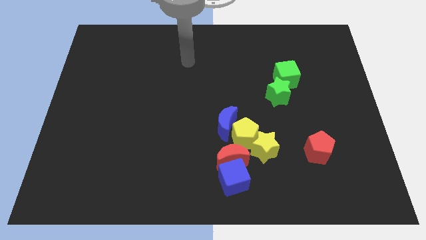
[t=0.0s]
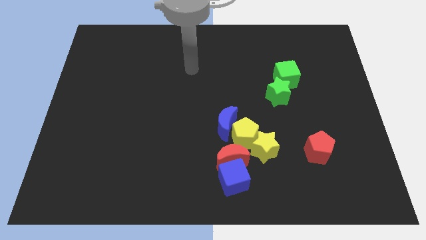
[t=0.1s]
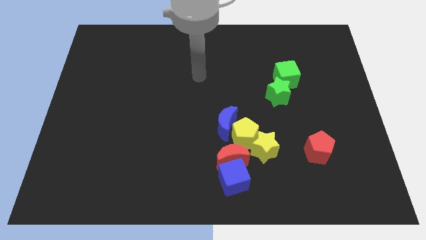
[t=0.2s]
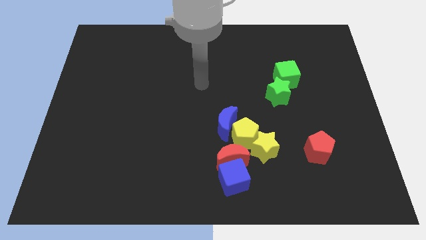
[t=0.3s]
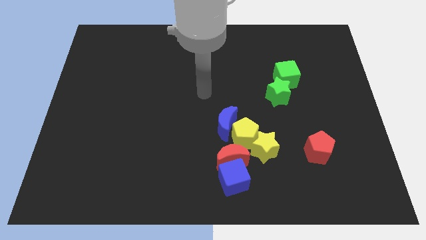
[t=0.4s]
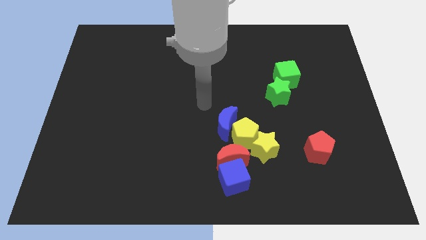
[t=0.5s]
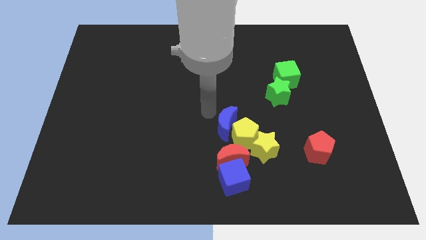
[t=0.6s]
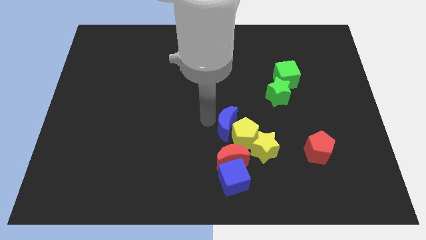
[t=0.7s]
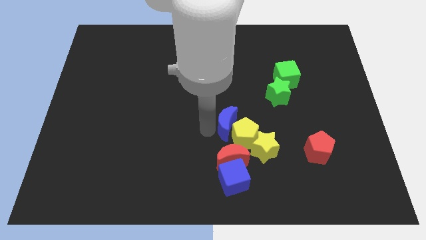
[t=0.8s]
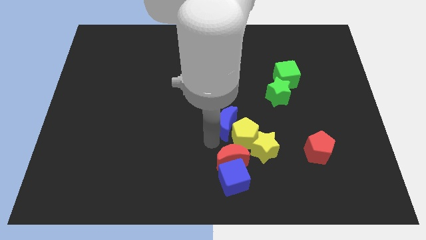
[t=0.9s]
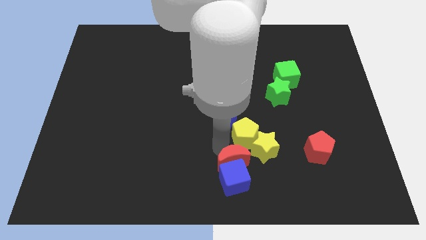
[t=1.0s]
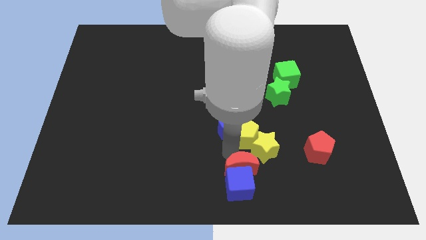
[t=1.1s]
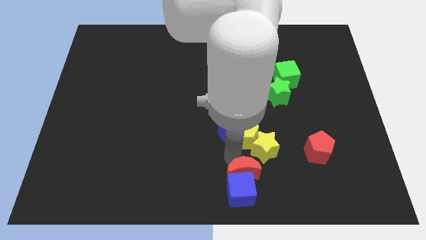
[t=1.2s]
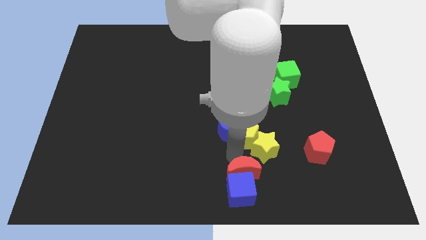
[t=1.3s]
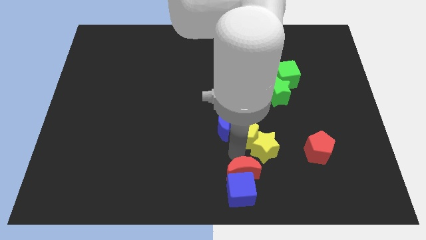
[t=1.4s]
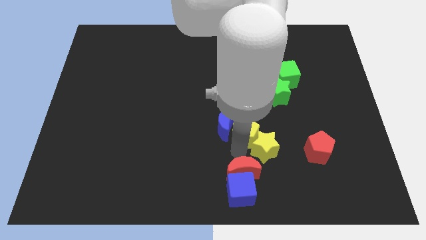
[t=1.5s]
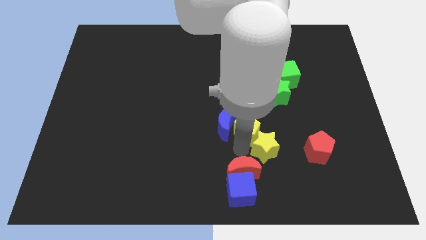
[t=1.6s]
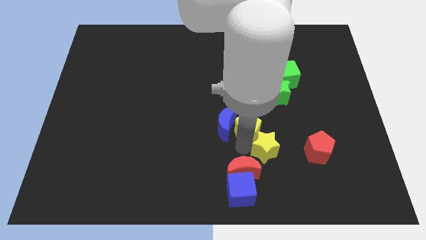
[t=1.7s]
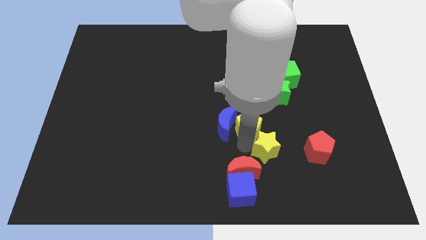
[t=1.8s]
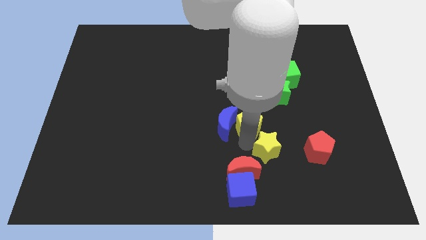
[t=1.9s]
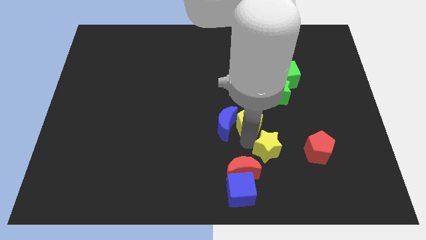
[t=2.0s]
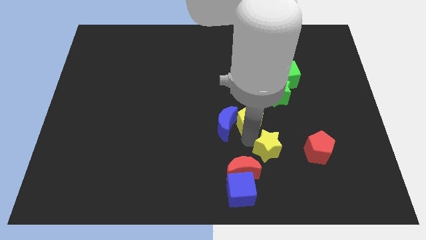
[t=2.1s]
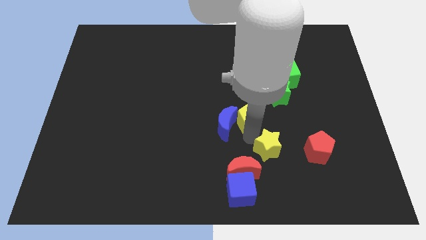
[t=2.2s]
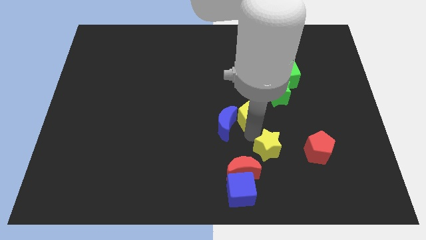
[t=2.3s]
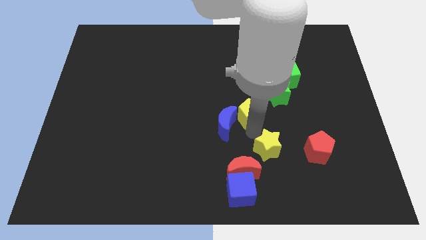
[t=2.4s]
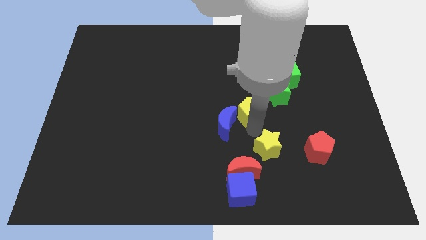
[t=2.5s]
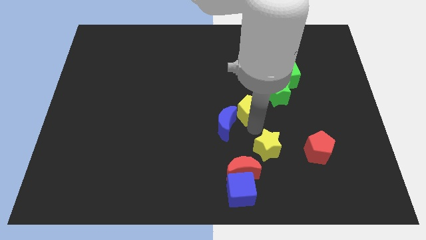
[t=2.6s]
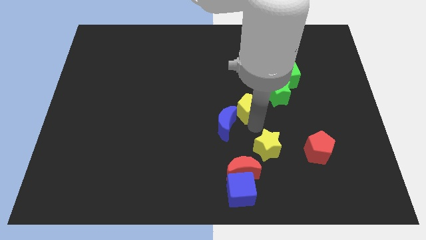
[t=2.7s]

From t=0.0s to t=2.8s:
pull the yellow pentagon apart from the clump

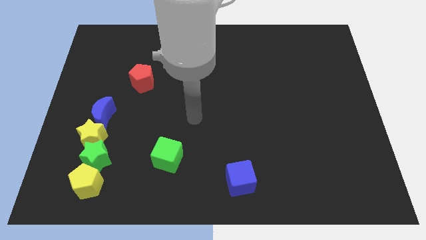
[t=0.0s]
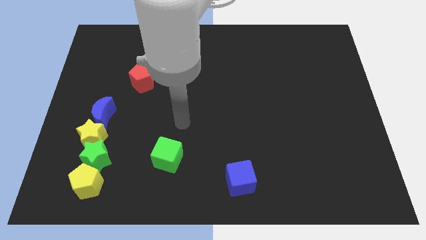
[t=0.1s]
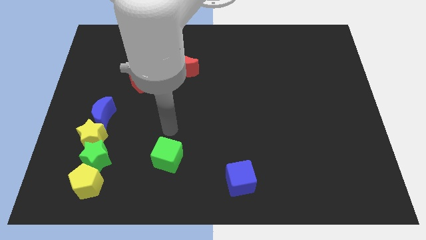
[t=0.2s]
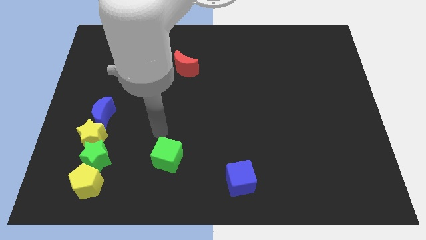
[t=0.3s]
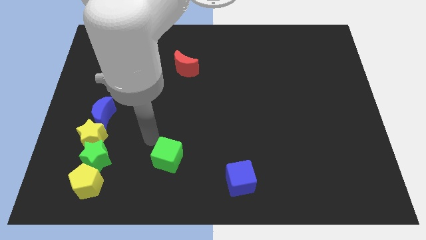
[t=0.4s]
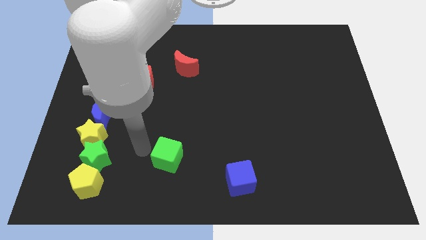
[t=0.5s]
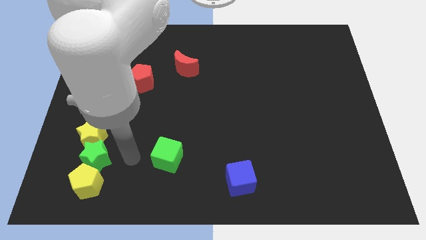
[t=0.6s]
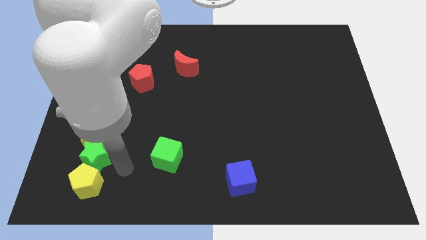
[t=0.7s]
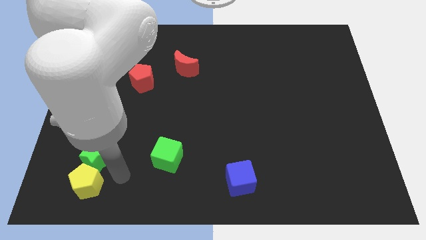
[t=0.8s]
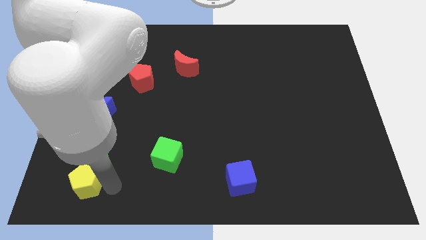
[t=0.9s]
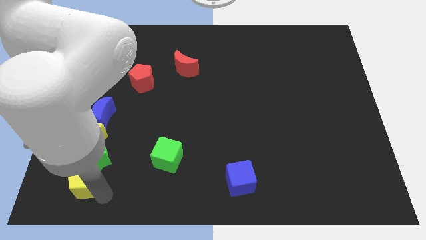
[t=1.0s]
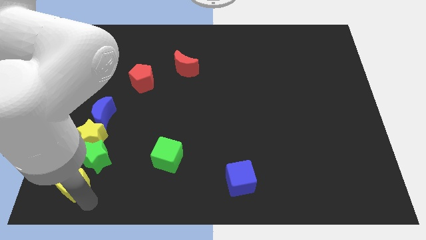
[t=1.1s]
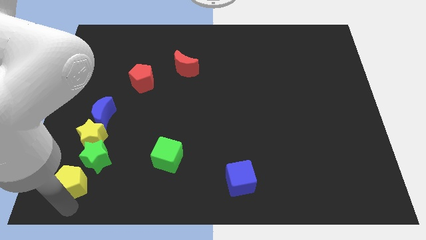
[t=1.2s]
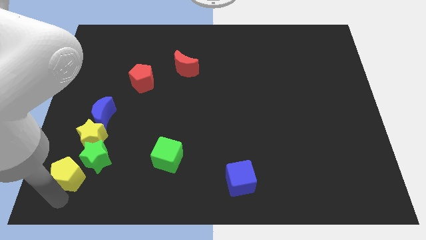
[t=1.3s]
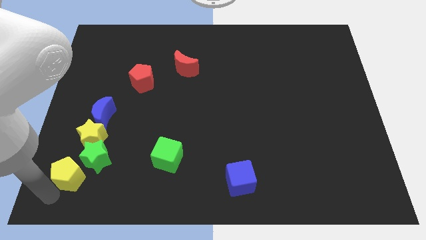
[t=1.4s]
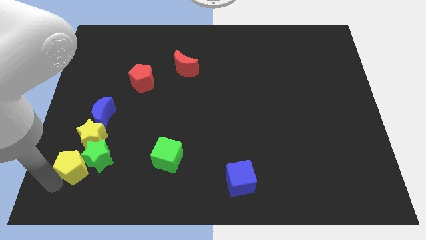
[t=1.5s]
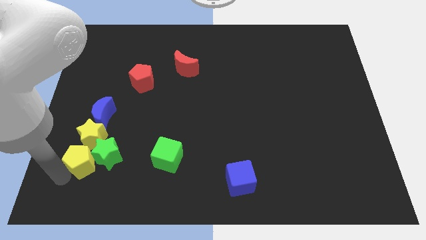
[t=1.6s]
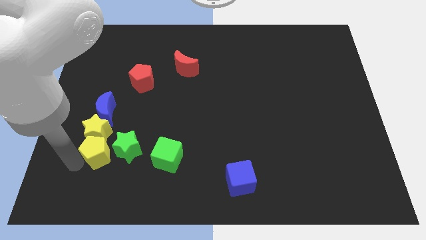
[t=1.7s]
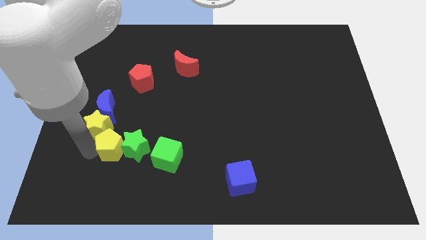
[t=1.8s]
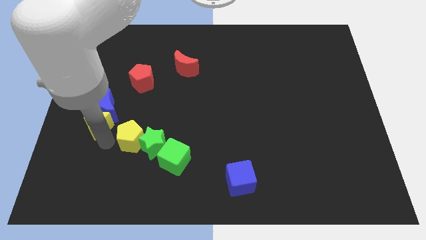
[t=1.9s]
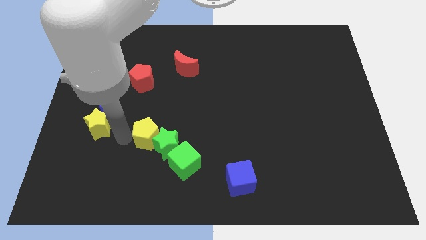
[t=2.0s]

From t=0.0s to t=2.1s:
pull the green star apart from the yellow star and yellow pentagon

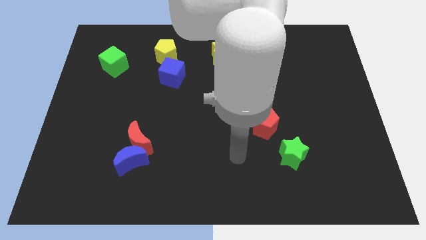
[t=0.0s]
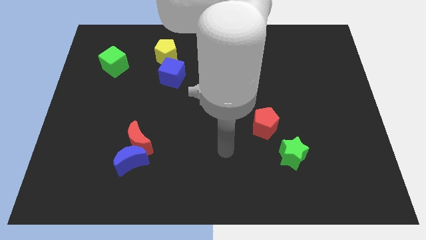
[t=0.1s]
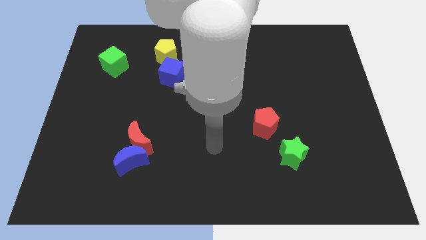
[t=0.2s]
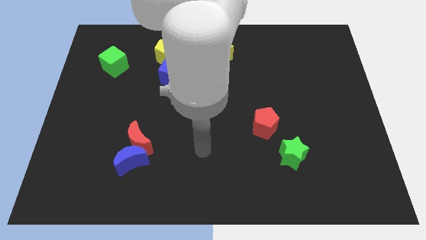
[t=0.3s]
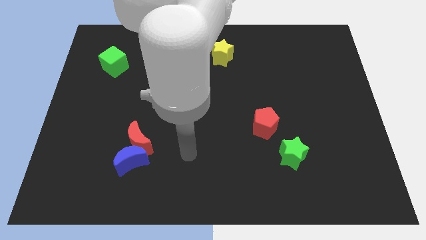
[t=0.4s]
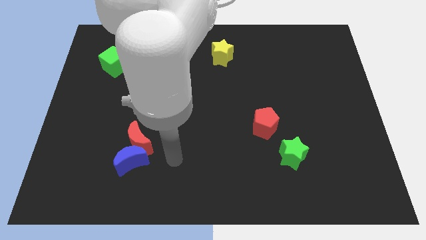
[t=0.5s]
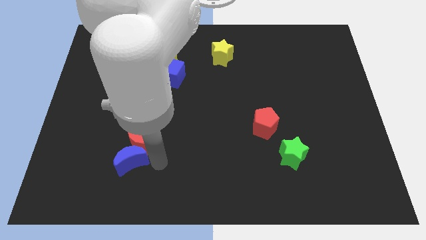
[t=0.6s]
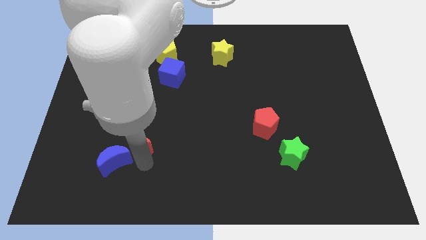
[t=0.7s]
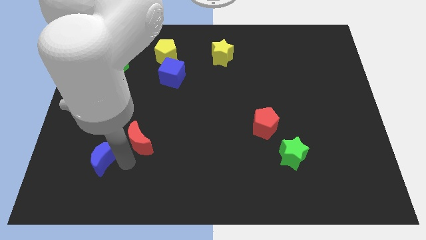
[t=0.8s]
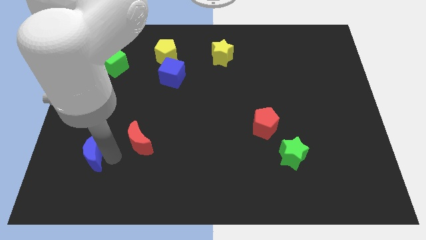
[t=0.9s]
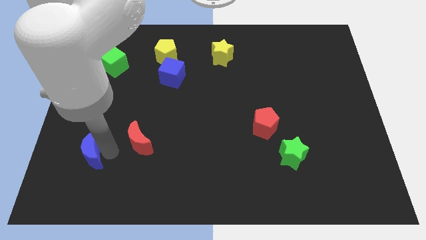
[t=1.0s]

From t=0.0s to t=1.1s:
move the red moon away from the blue moon

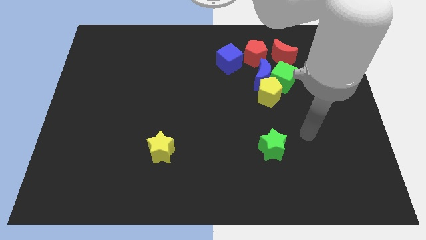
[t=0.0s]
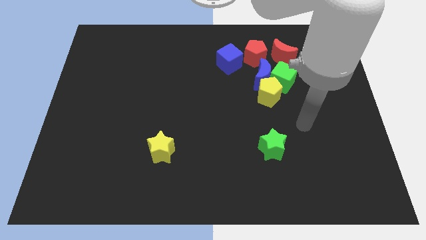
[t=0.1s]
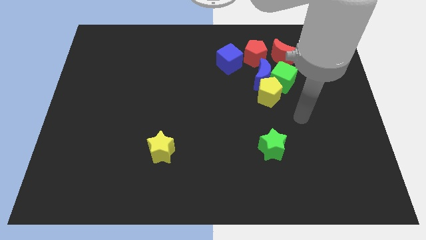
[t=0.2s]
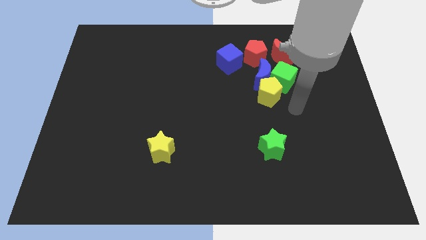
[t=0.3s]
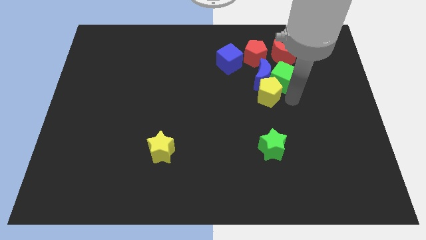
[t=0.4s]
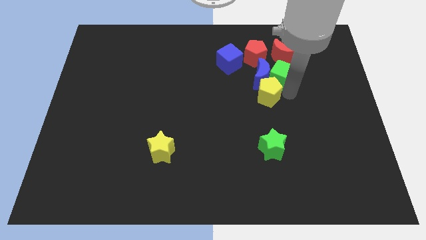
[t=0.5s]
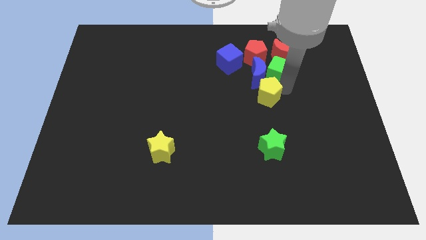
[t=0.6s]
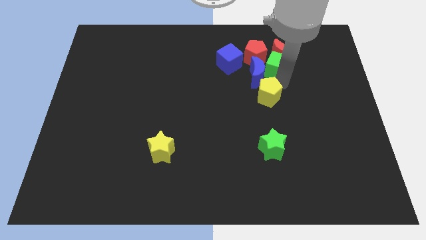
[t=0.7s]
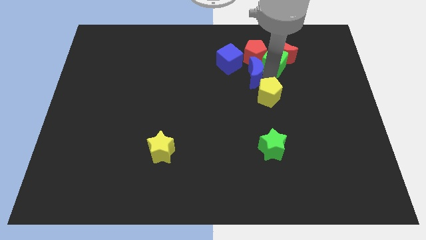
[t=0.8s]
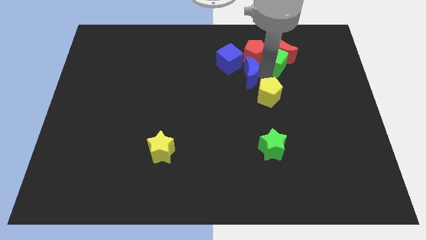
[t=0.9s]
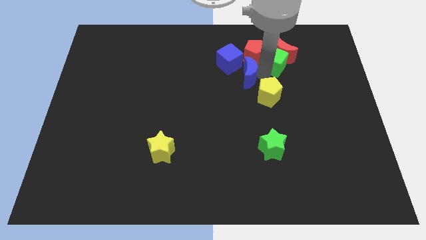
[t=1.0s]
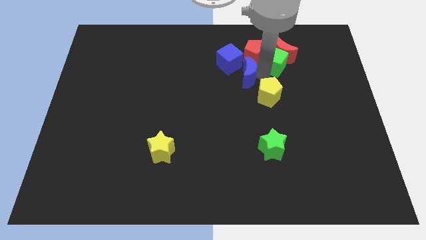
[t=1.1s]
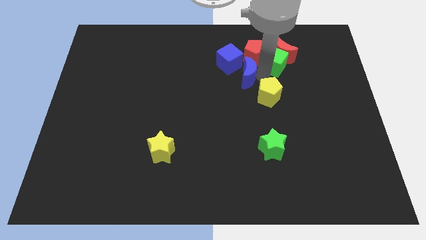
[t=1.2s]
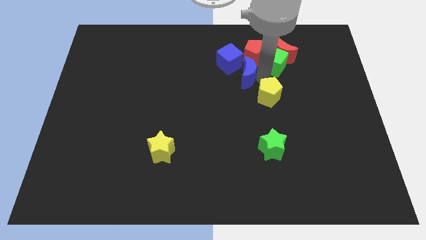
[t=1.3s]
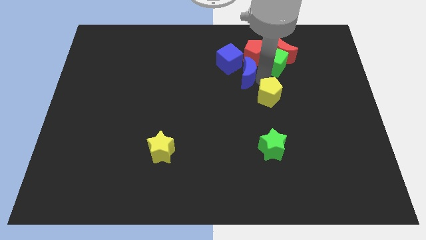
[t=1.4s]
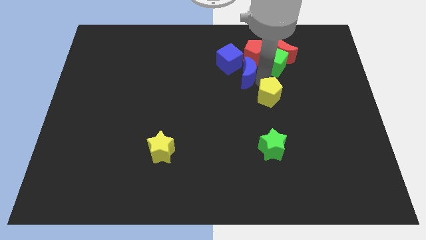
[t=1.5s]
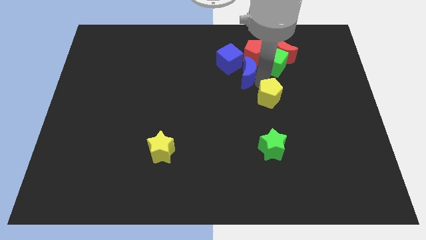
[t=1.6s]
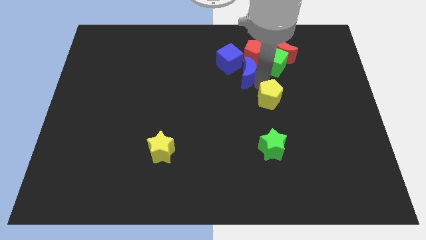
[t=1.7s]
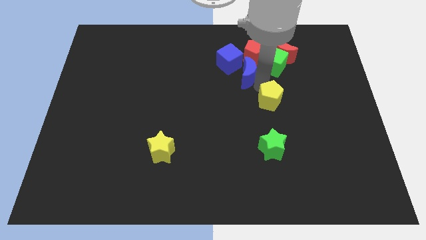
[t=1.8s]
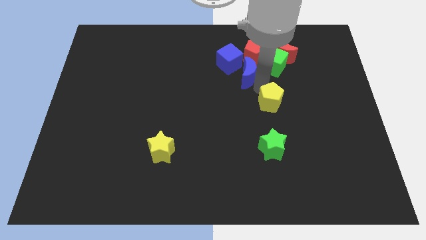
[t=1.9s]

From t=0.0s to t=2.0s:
separate the yellow pentagon from the blue moon and green cube

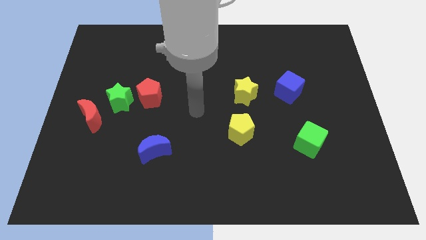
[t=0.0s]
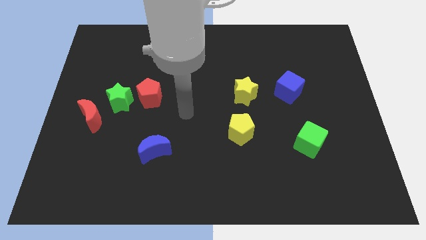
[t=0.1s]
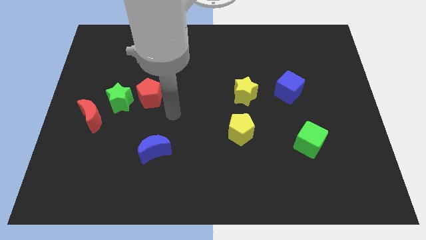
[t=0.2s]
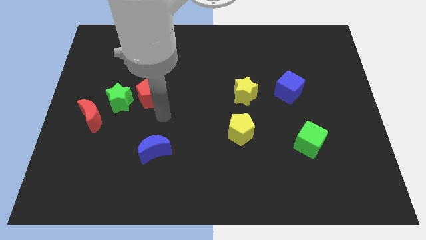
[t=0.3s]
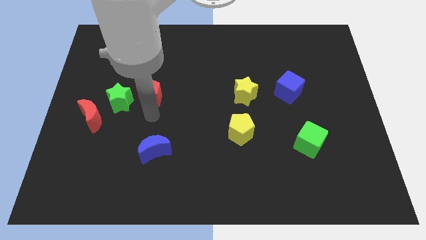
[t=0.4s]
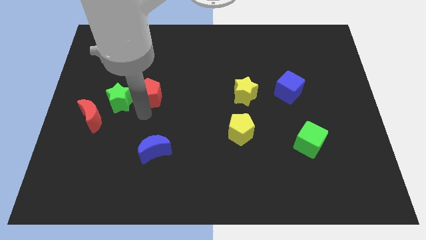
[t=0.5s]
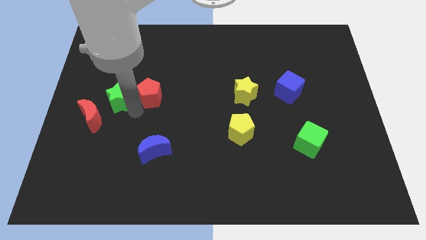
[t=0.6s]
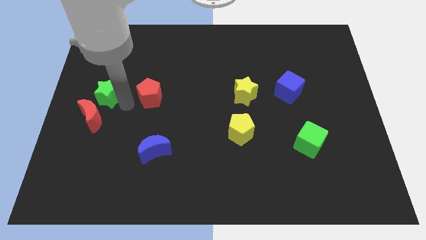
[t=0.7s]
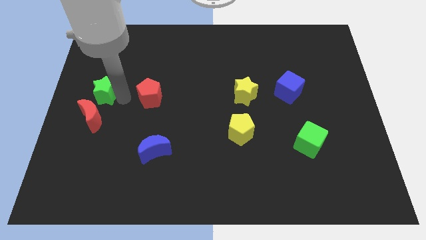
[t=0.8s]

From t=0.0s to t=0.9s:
separate the red pentagon from the green star

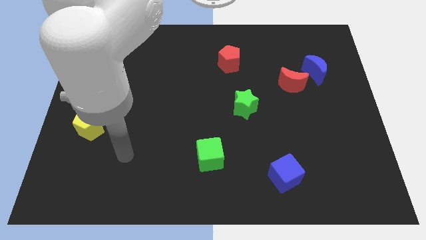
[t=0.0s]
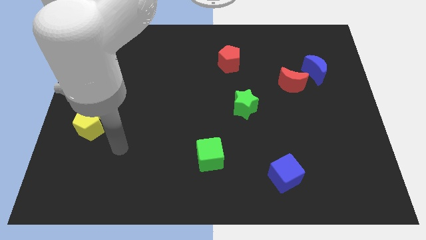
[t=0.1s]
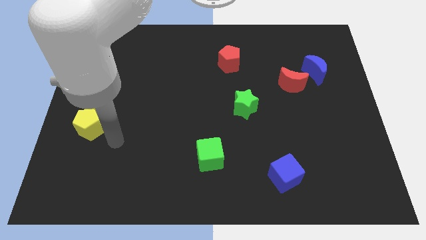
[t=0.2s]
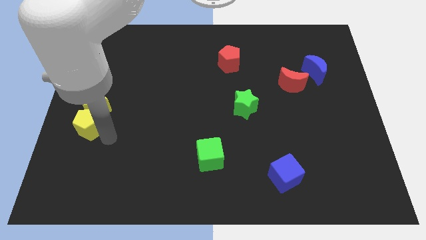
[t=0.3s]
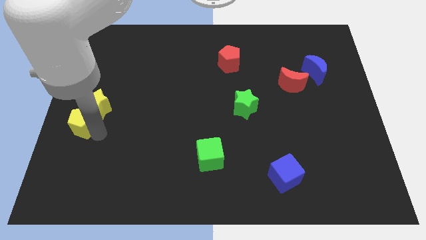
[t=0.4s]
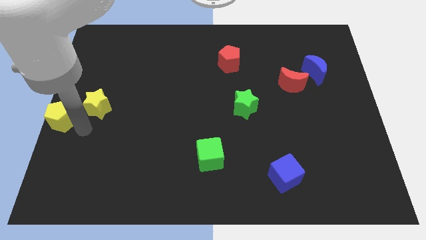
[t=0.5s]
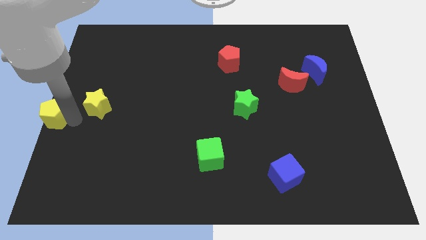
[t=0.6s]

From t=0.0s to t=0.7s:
pull the yellow star apart from the yellow pentagon
